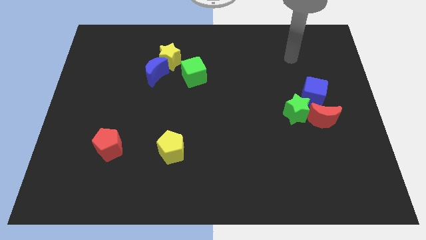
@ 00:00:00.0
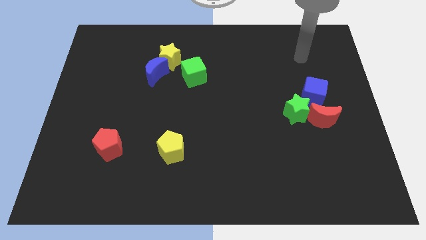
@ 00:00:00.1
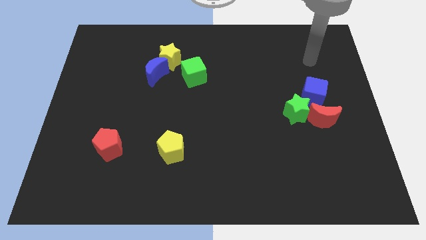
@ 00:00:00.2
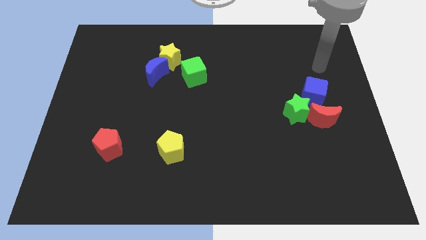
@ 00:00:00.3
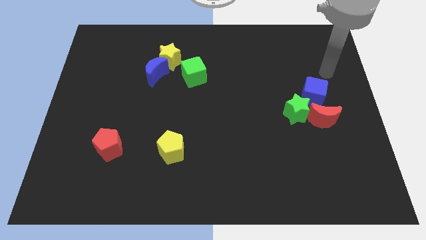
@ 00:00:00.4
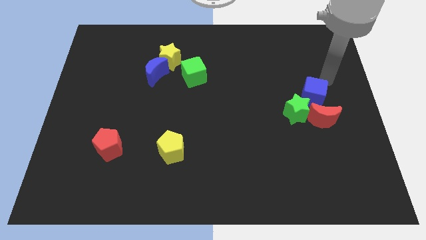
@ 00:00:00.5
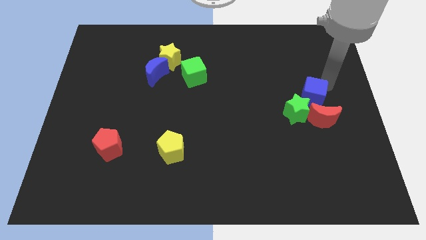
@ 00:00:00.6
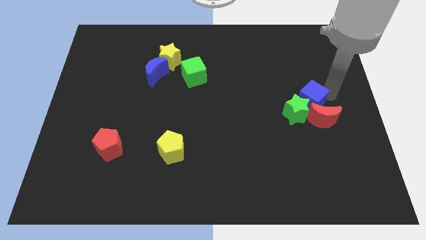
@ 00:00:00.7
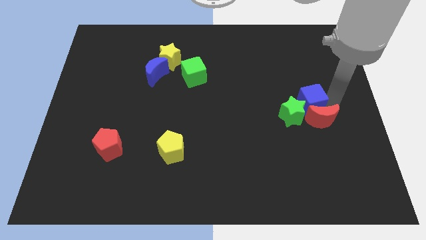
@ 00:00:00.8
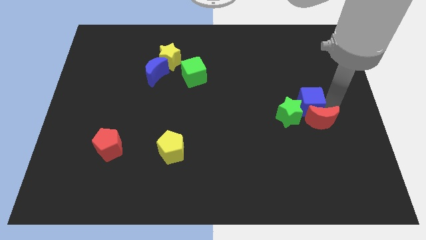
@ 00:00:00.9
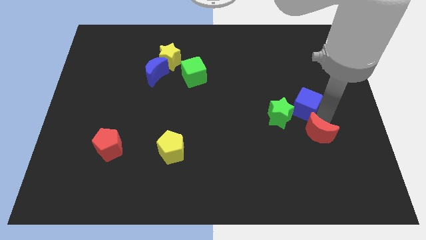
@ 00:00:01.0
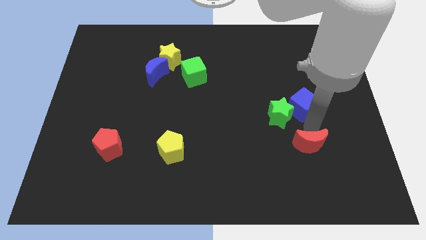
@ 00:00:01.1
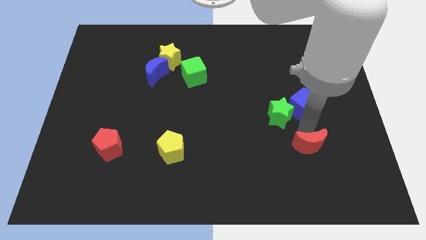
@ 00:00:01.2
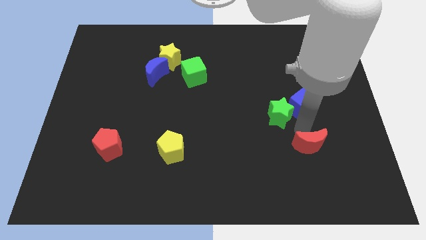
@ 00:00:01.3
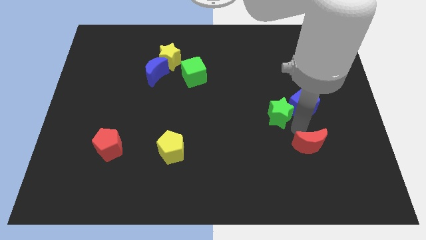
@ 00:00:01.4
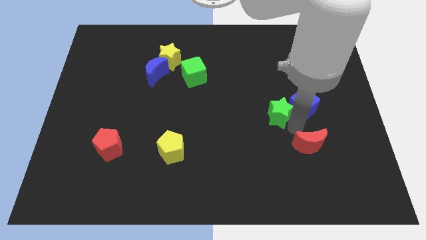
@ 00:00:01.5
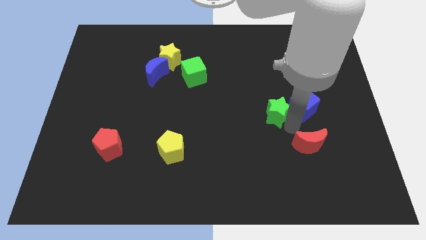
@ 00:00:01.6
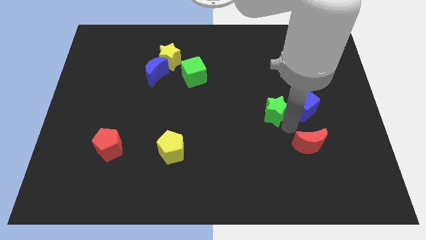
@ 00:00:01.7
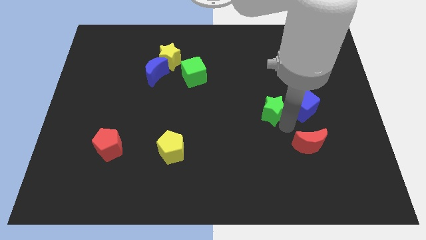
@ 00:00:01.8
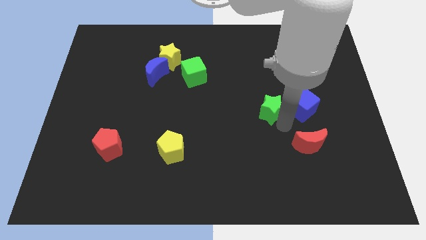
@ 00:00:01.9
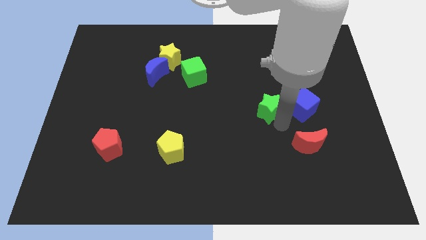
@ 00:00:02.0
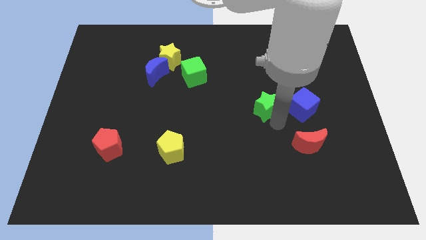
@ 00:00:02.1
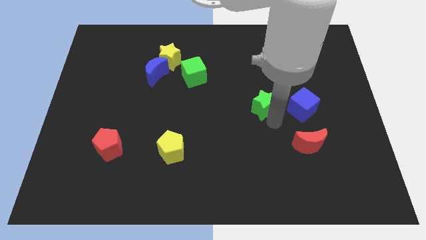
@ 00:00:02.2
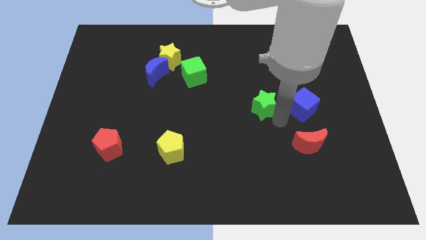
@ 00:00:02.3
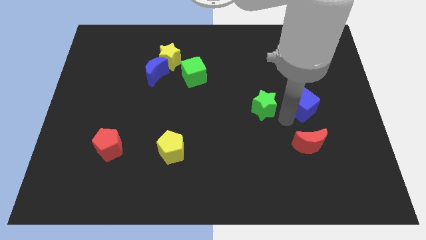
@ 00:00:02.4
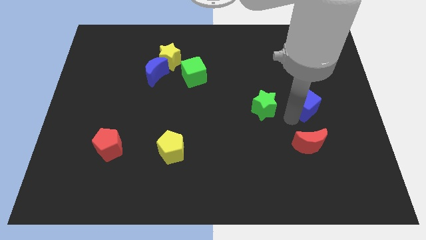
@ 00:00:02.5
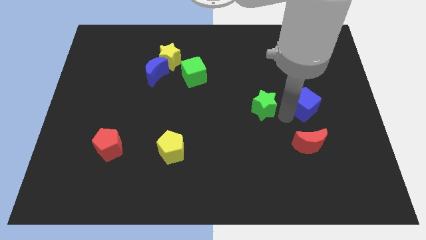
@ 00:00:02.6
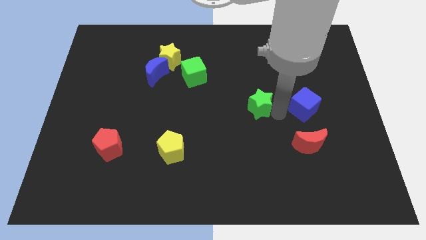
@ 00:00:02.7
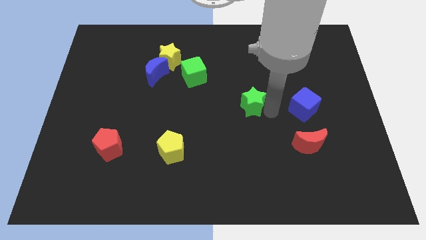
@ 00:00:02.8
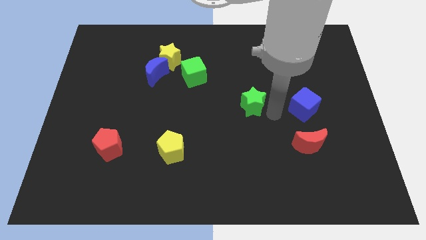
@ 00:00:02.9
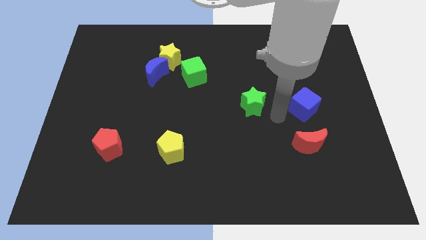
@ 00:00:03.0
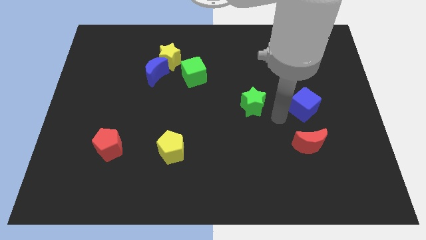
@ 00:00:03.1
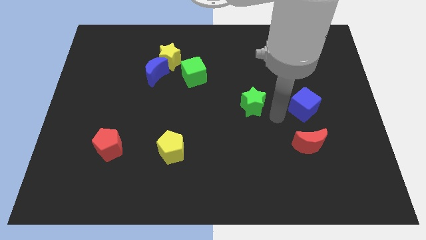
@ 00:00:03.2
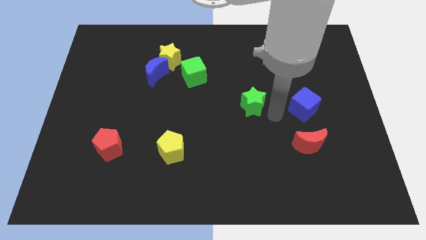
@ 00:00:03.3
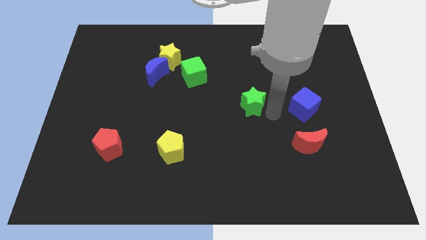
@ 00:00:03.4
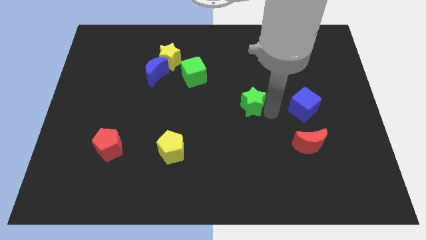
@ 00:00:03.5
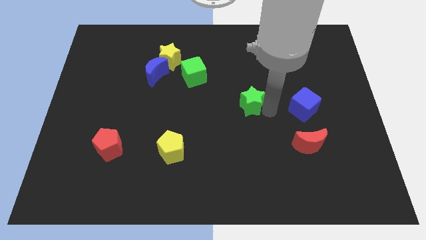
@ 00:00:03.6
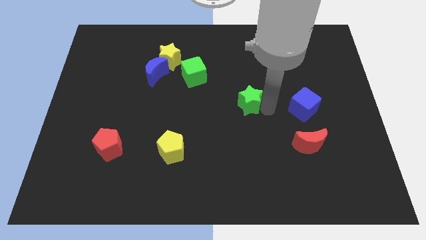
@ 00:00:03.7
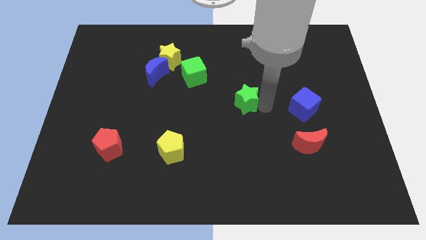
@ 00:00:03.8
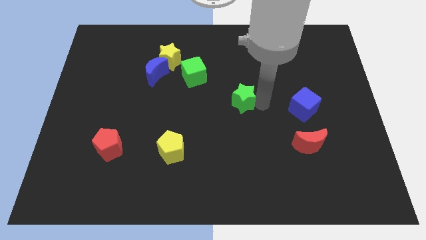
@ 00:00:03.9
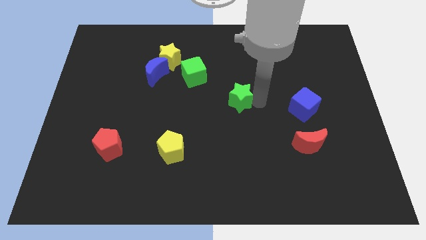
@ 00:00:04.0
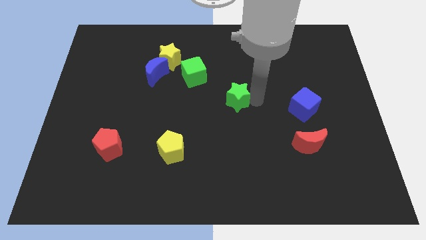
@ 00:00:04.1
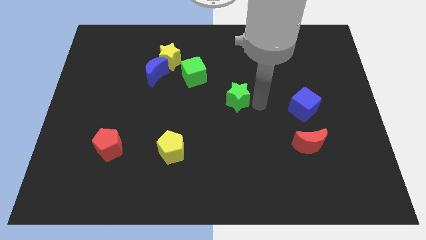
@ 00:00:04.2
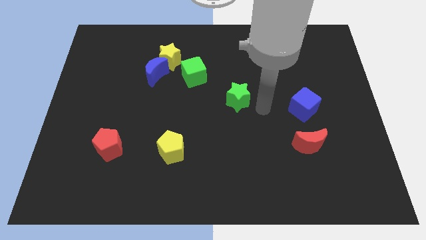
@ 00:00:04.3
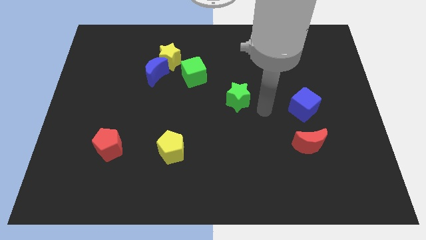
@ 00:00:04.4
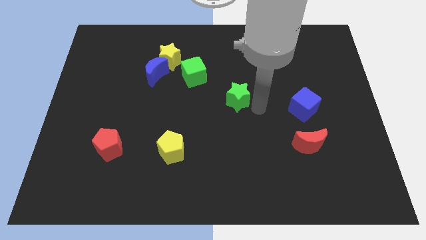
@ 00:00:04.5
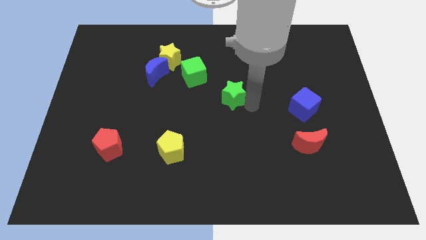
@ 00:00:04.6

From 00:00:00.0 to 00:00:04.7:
push the green star to the bottom right of the green cube

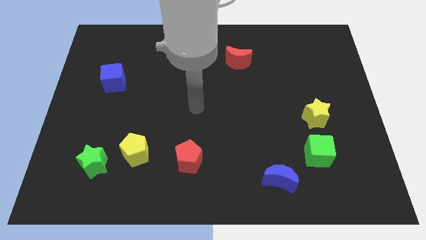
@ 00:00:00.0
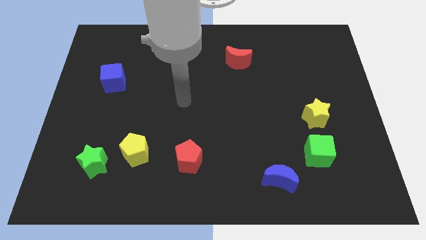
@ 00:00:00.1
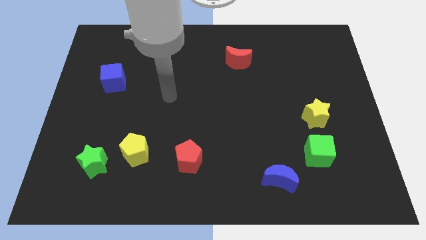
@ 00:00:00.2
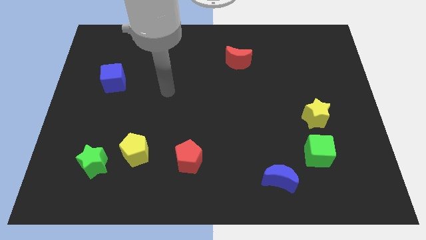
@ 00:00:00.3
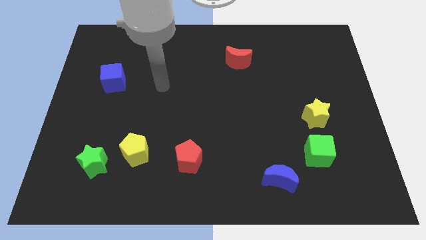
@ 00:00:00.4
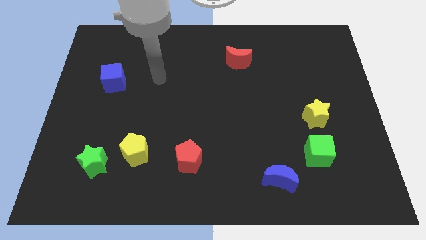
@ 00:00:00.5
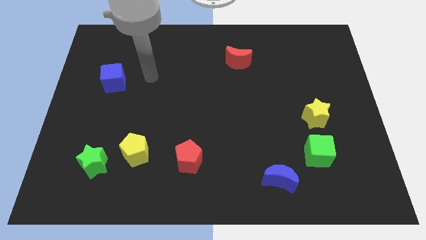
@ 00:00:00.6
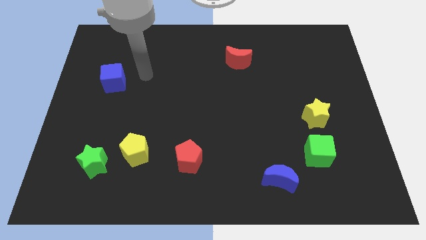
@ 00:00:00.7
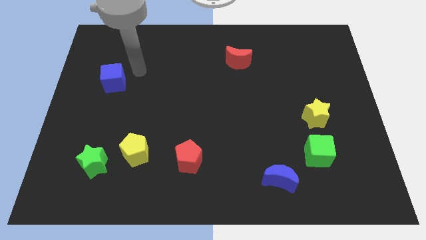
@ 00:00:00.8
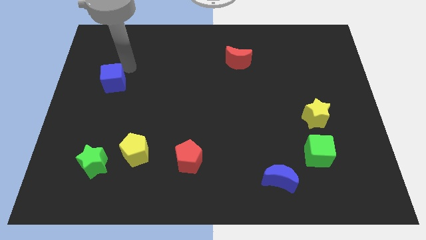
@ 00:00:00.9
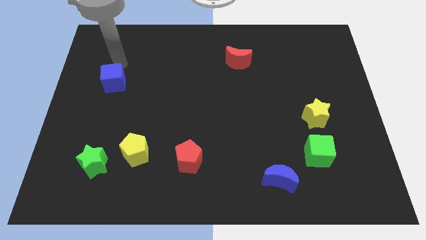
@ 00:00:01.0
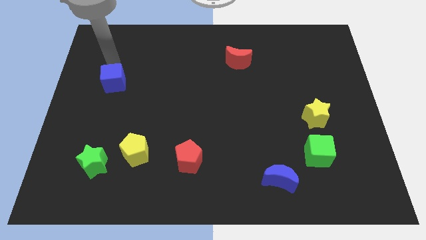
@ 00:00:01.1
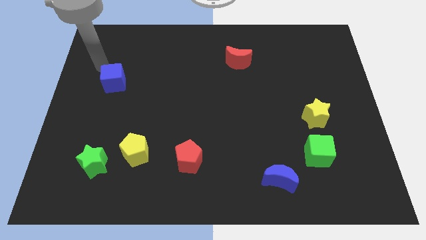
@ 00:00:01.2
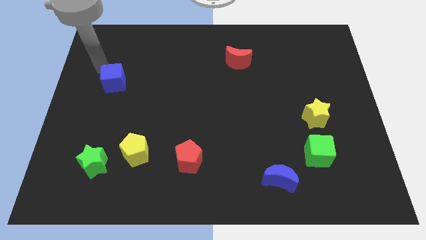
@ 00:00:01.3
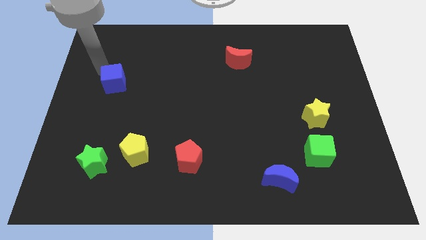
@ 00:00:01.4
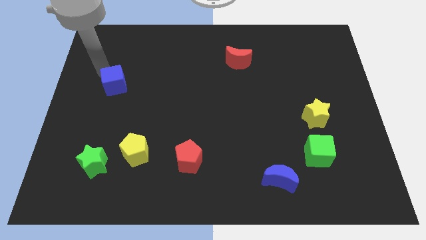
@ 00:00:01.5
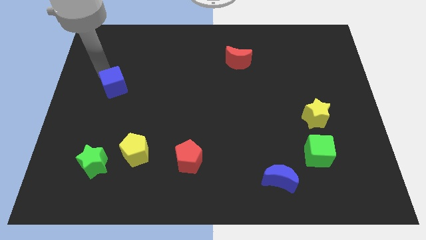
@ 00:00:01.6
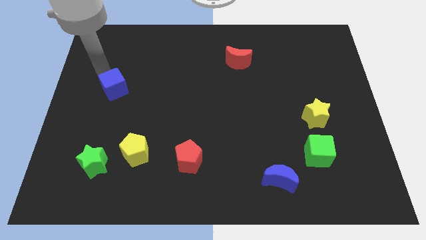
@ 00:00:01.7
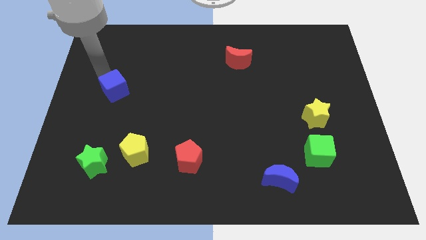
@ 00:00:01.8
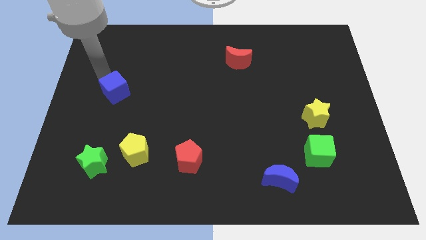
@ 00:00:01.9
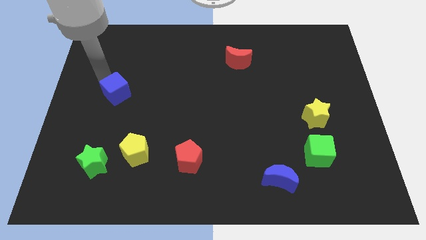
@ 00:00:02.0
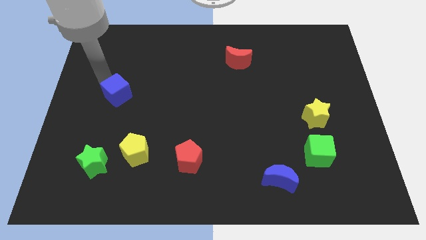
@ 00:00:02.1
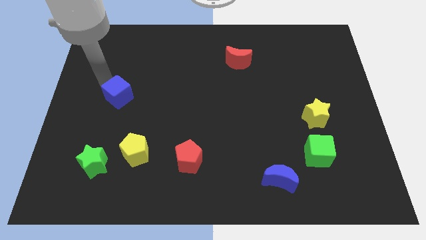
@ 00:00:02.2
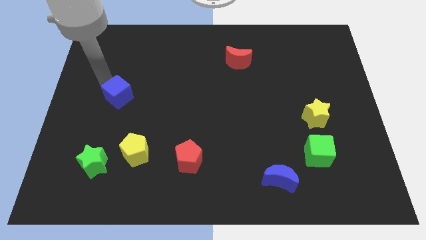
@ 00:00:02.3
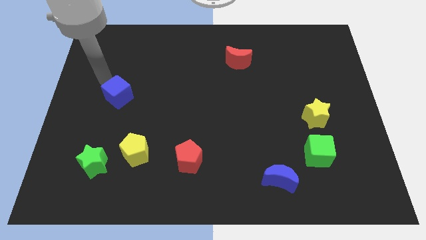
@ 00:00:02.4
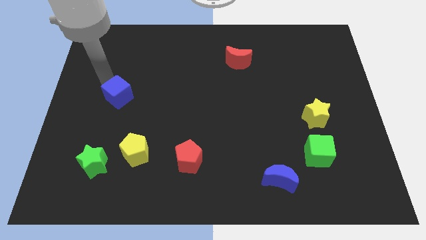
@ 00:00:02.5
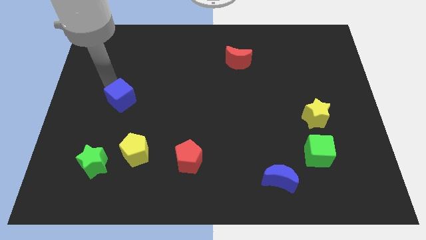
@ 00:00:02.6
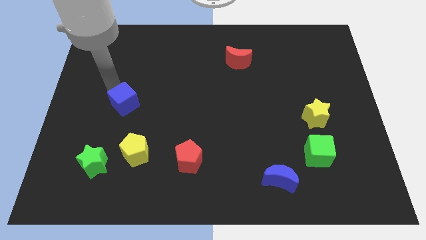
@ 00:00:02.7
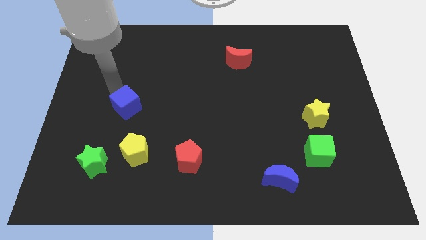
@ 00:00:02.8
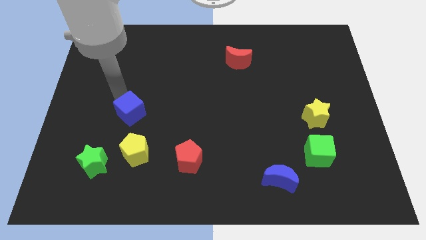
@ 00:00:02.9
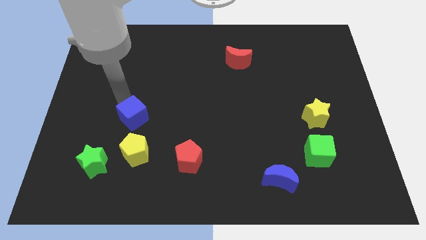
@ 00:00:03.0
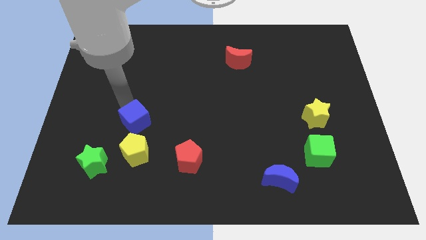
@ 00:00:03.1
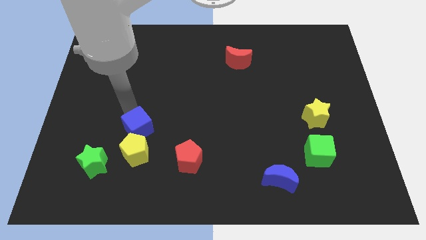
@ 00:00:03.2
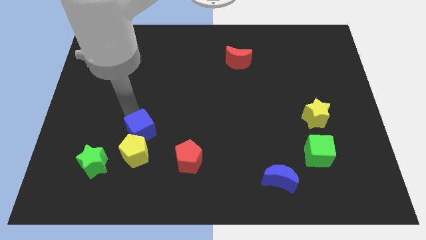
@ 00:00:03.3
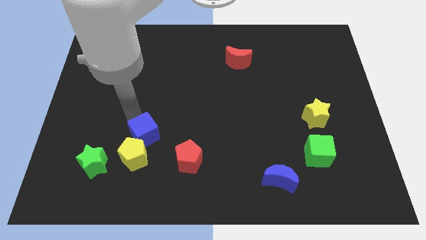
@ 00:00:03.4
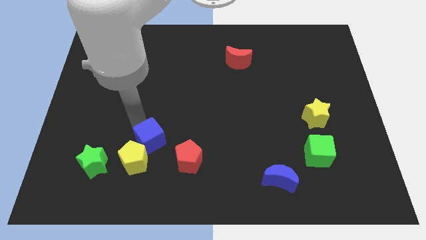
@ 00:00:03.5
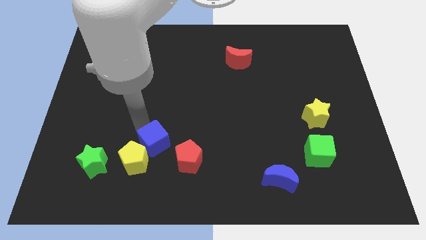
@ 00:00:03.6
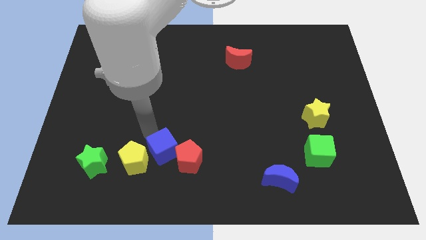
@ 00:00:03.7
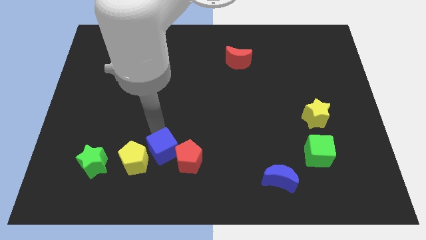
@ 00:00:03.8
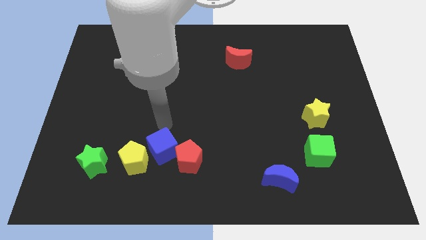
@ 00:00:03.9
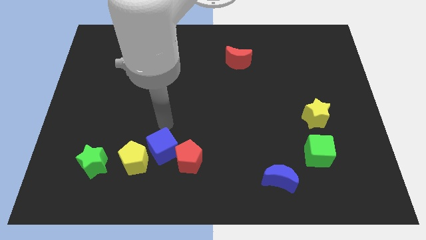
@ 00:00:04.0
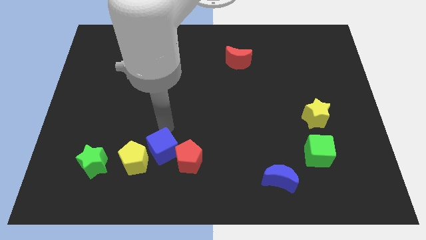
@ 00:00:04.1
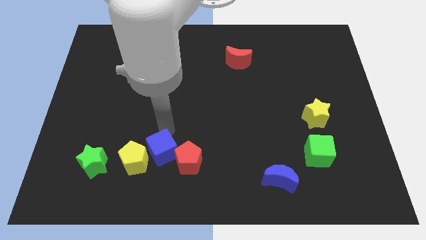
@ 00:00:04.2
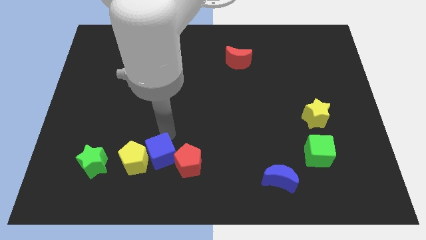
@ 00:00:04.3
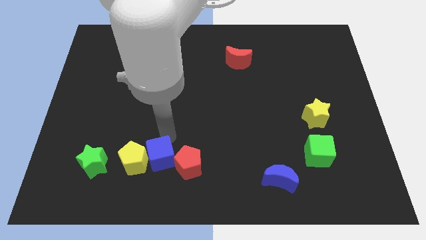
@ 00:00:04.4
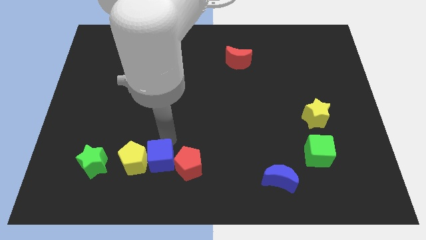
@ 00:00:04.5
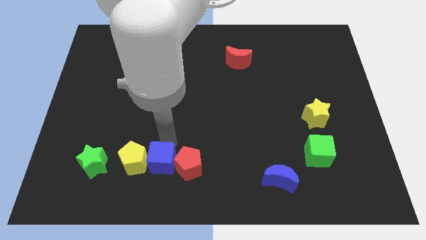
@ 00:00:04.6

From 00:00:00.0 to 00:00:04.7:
push the blue cube to the bottom left of the red pentagon
